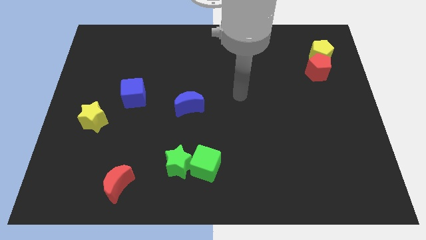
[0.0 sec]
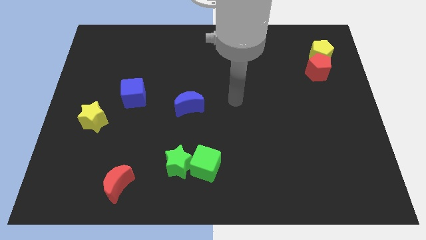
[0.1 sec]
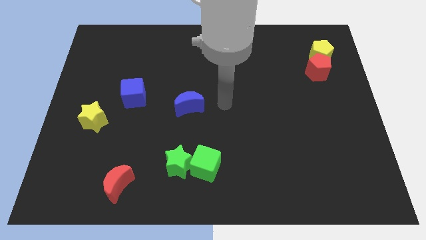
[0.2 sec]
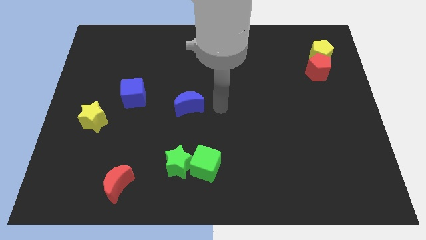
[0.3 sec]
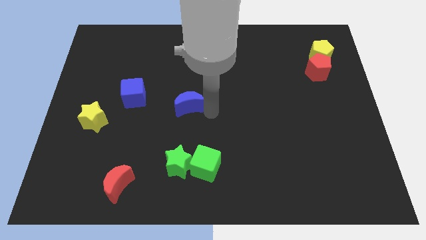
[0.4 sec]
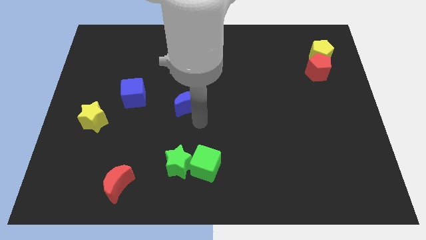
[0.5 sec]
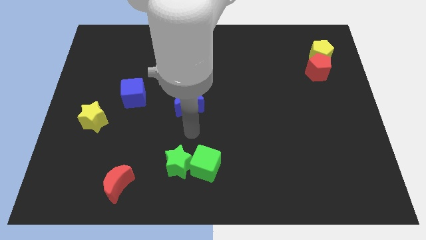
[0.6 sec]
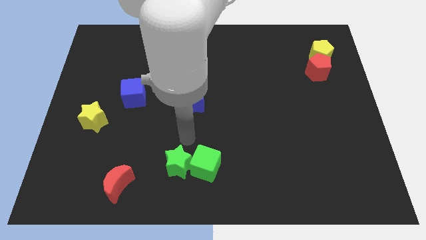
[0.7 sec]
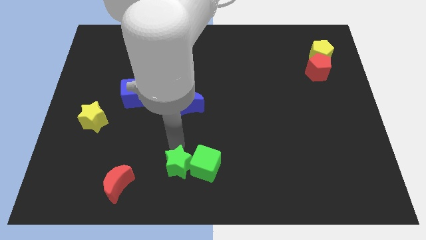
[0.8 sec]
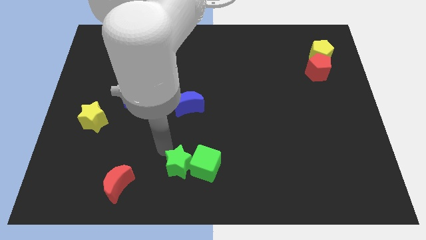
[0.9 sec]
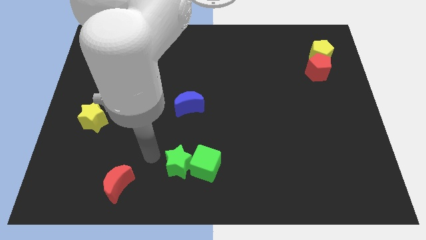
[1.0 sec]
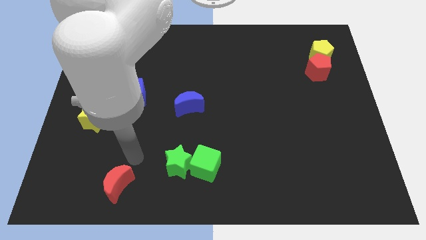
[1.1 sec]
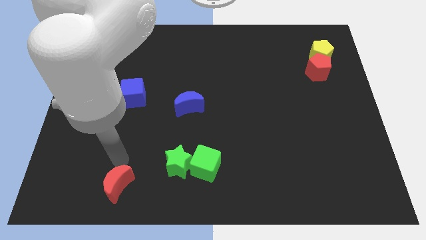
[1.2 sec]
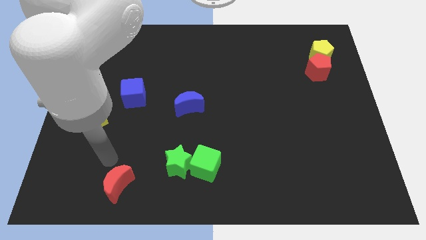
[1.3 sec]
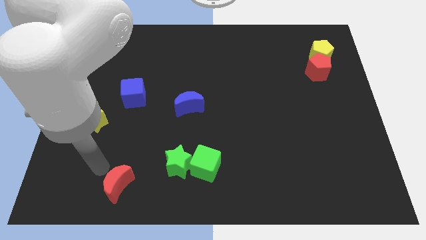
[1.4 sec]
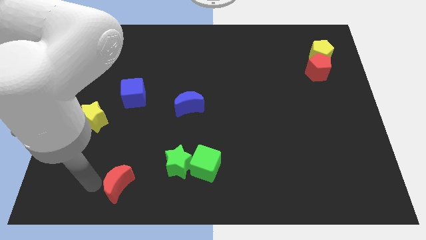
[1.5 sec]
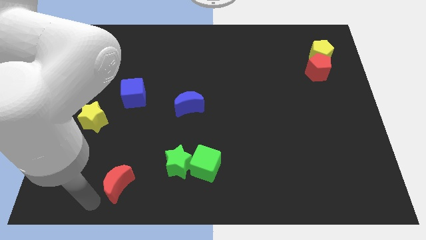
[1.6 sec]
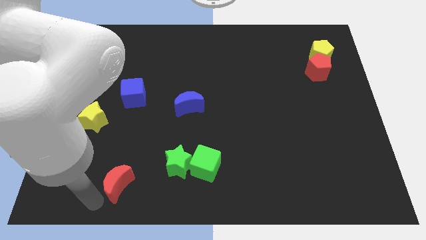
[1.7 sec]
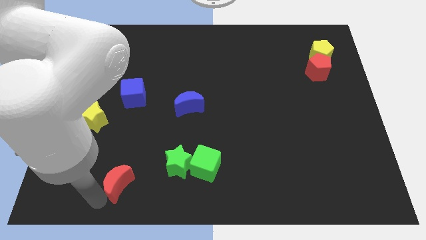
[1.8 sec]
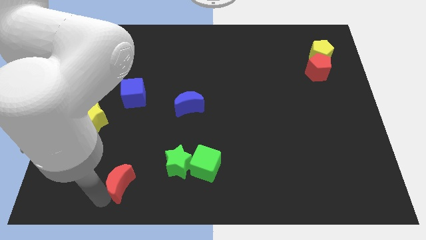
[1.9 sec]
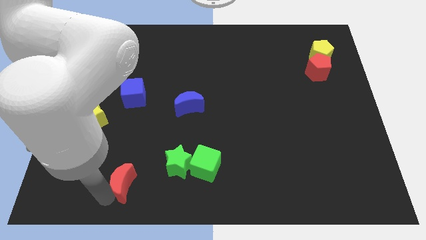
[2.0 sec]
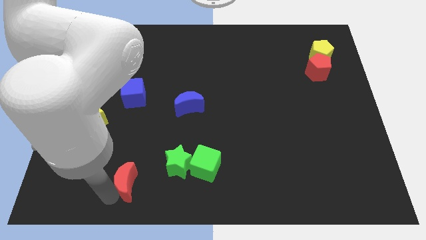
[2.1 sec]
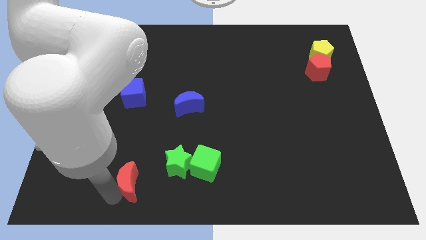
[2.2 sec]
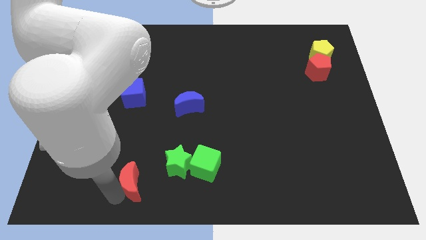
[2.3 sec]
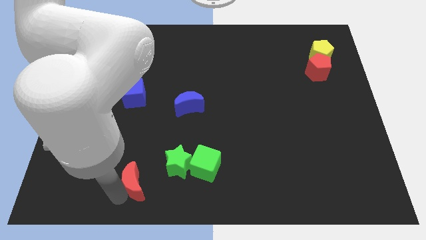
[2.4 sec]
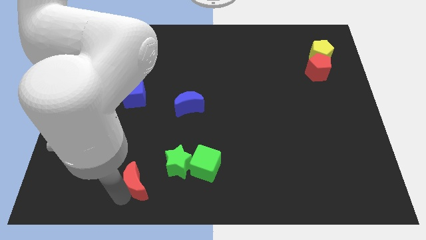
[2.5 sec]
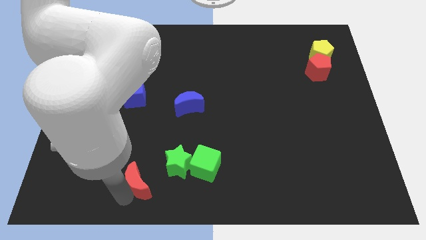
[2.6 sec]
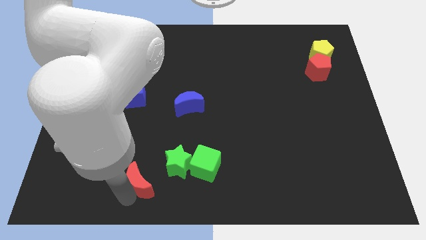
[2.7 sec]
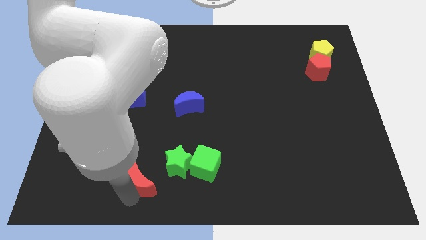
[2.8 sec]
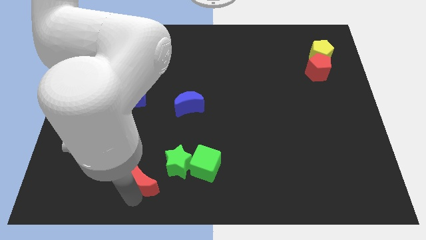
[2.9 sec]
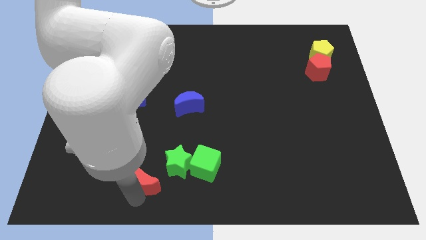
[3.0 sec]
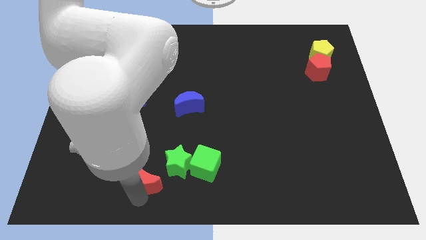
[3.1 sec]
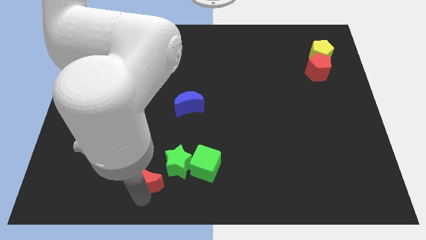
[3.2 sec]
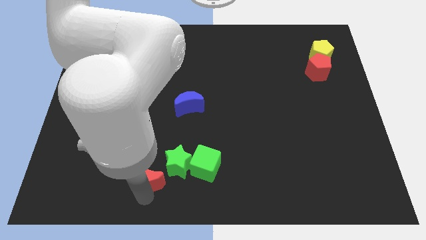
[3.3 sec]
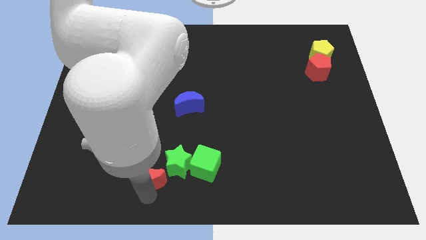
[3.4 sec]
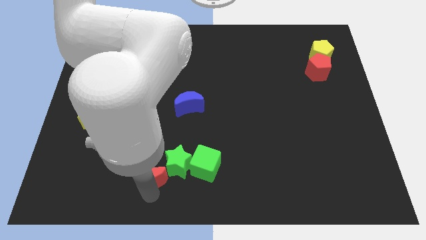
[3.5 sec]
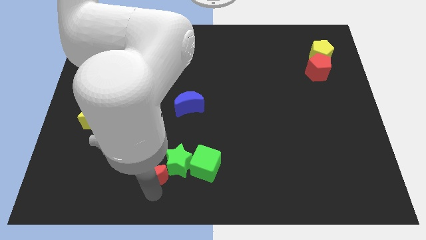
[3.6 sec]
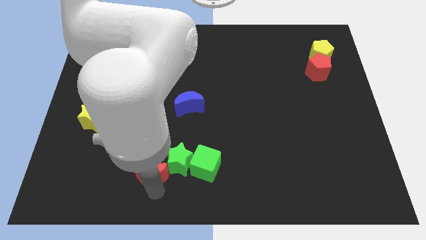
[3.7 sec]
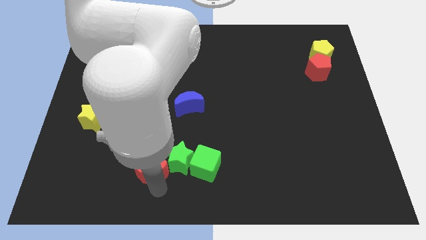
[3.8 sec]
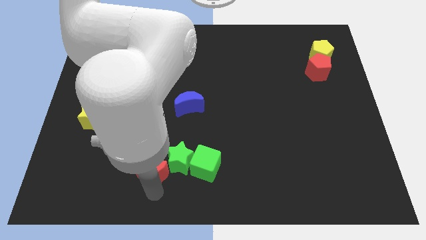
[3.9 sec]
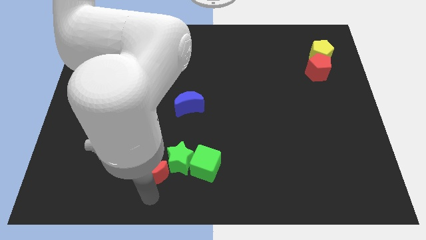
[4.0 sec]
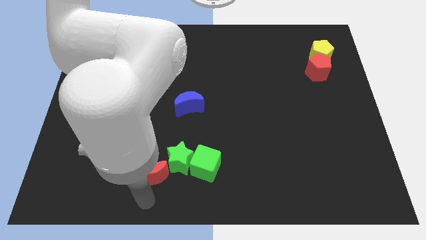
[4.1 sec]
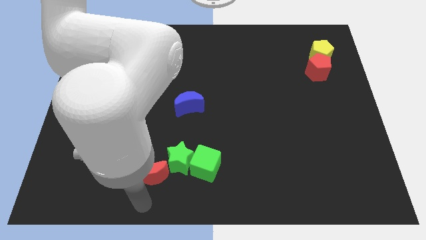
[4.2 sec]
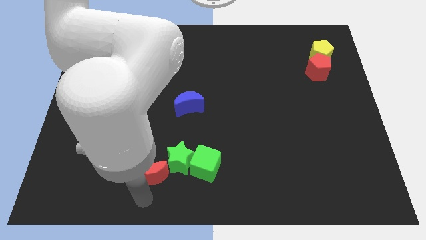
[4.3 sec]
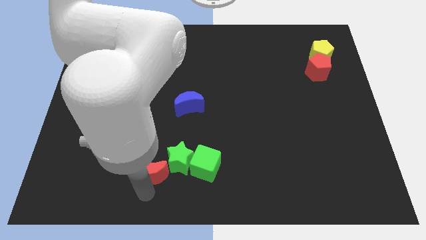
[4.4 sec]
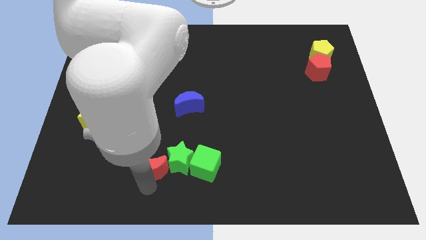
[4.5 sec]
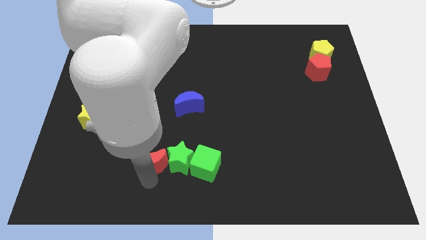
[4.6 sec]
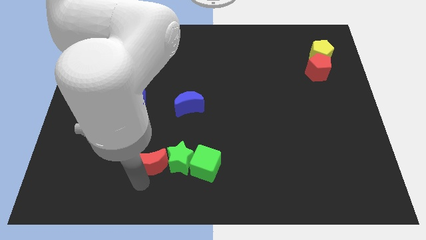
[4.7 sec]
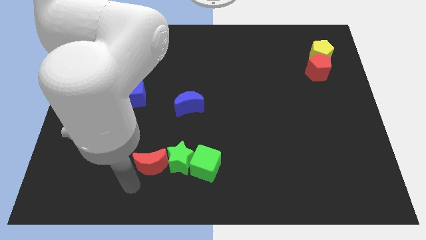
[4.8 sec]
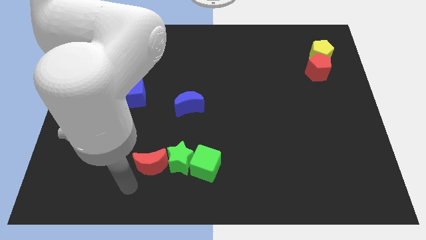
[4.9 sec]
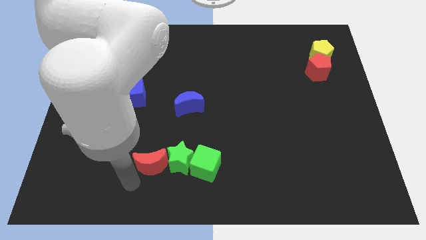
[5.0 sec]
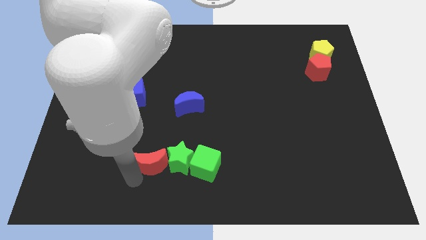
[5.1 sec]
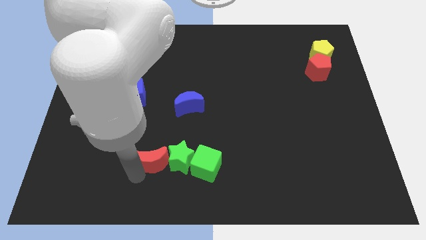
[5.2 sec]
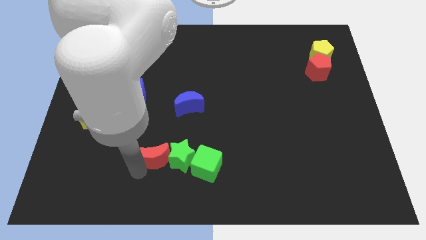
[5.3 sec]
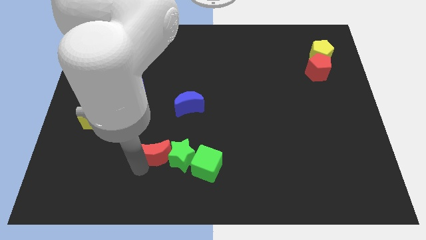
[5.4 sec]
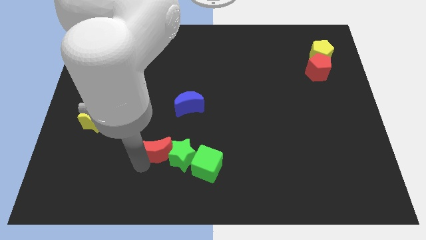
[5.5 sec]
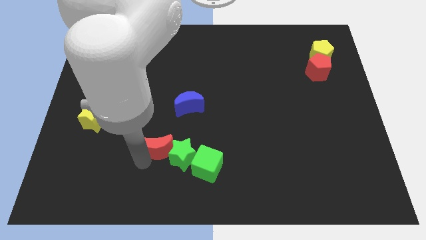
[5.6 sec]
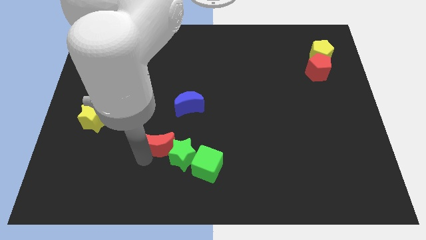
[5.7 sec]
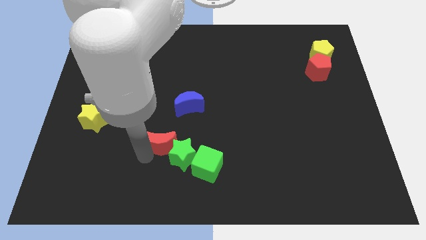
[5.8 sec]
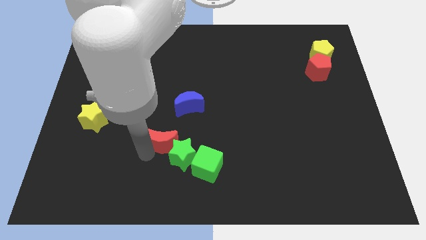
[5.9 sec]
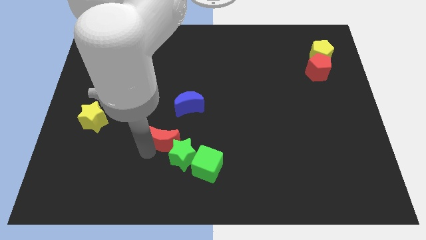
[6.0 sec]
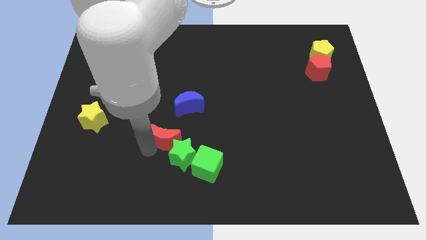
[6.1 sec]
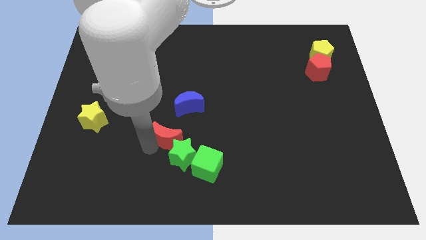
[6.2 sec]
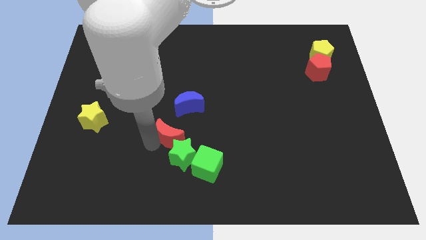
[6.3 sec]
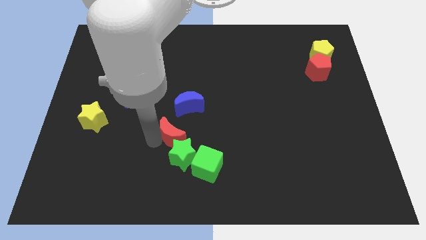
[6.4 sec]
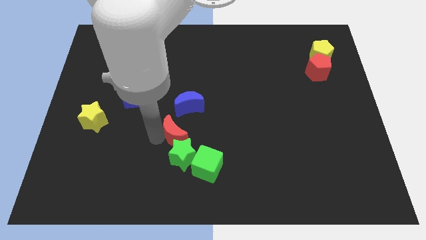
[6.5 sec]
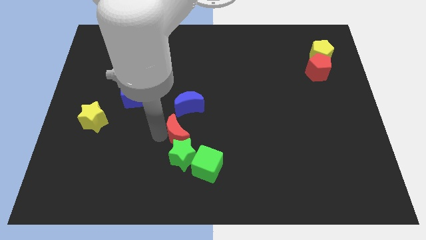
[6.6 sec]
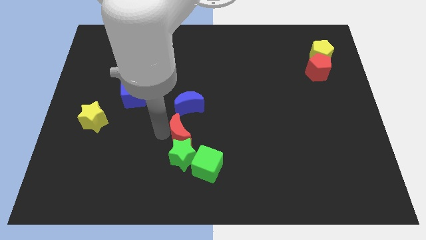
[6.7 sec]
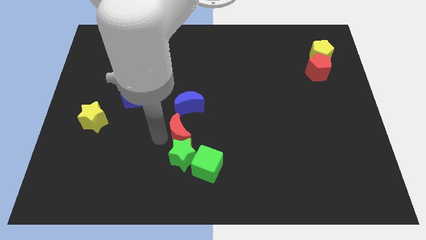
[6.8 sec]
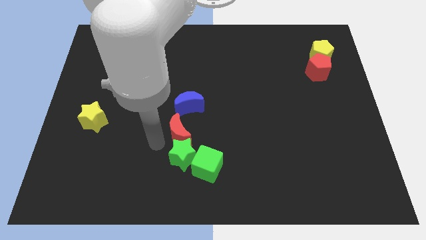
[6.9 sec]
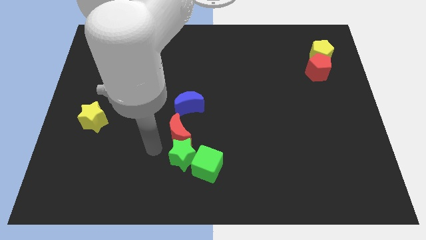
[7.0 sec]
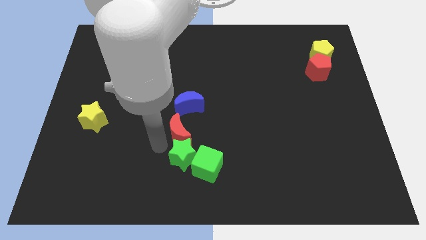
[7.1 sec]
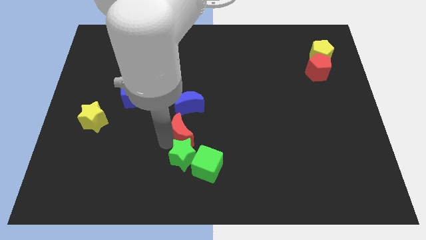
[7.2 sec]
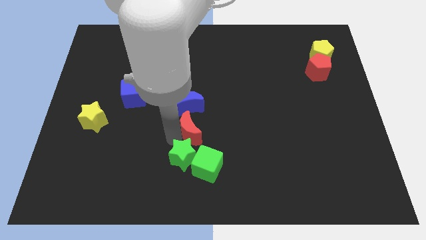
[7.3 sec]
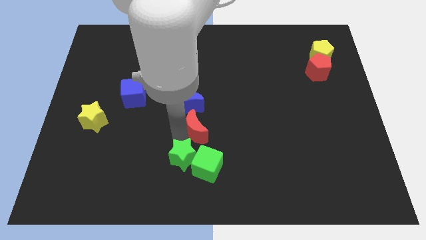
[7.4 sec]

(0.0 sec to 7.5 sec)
move the red moon up and right diagonally

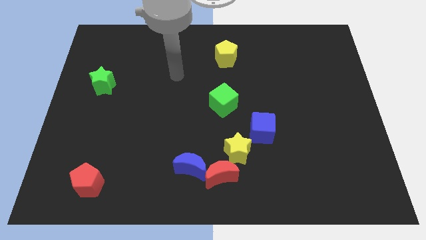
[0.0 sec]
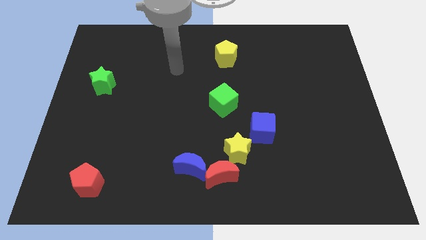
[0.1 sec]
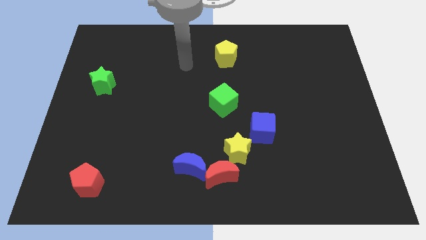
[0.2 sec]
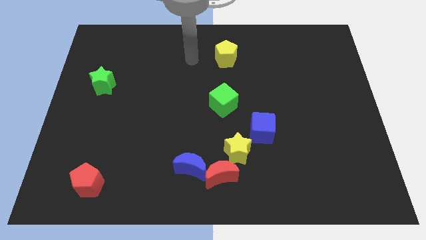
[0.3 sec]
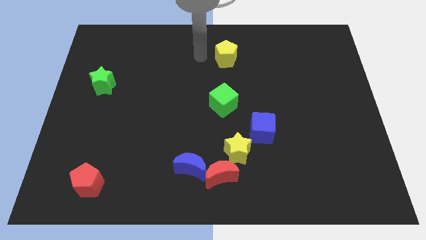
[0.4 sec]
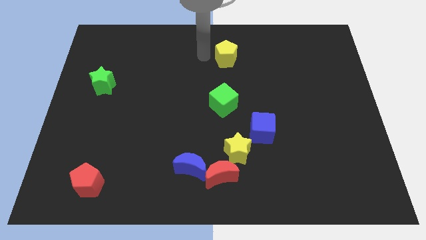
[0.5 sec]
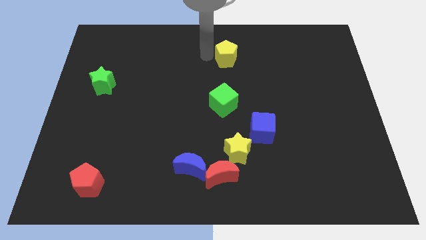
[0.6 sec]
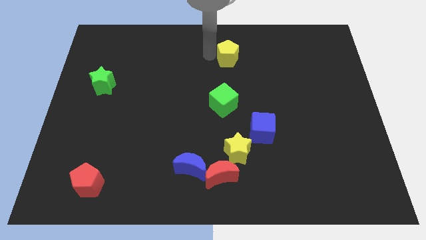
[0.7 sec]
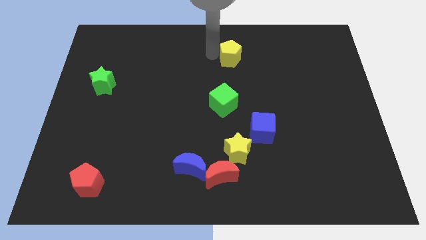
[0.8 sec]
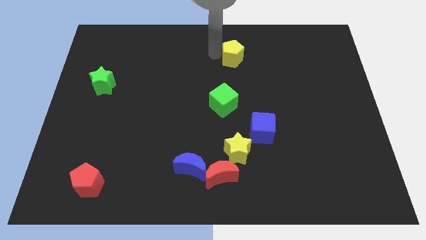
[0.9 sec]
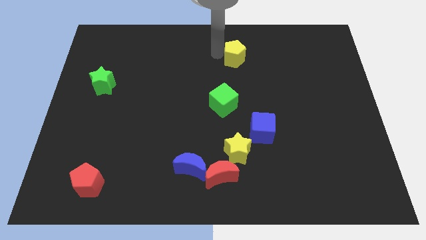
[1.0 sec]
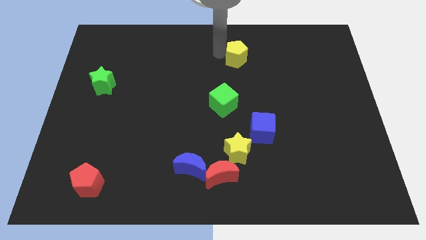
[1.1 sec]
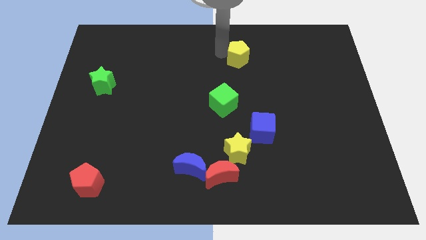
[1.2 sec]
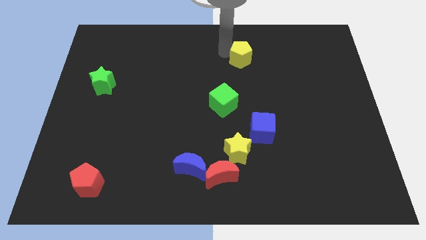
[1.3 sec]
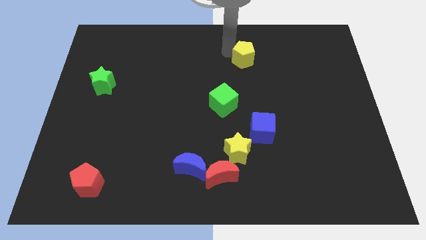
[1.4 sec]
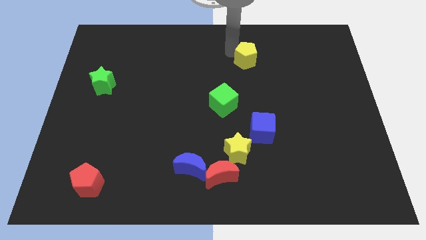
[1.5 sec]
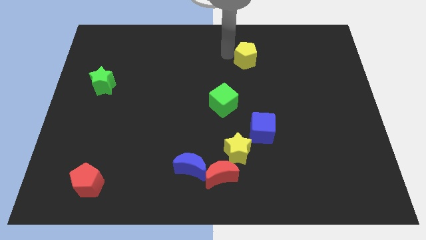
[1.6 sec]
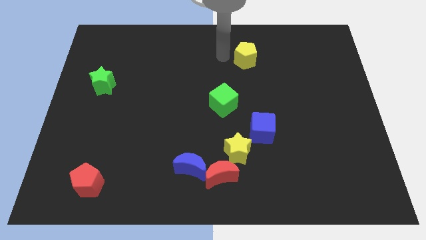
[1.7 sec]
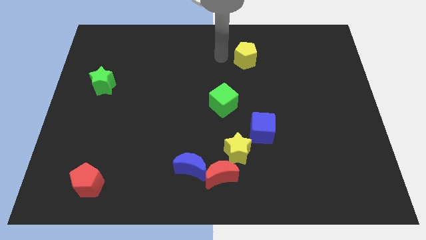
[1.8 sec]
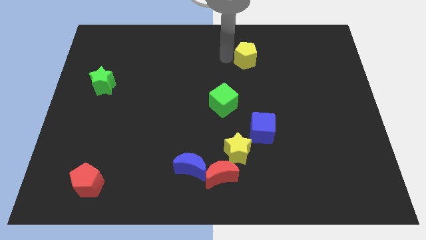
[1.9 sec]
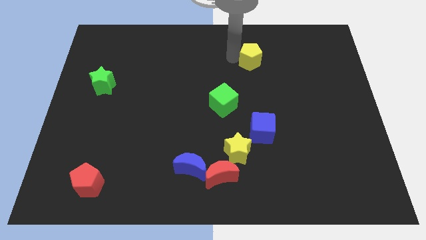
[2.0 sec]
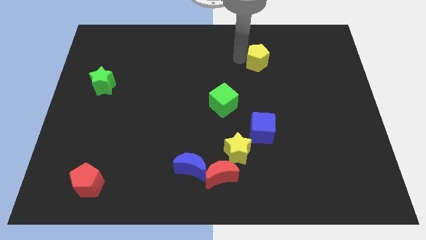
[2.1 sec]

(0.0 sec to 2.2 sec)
move the yellow pentagon a little to the right
